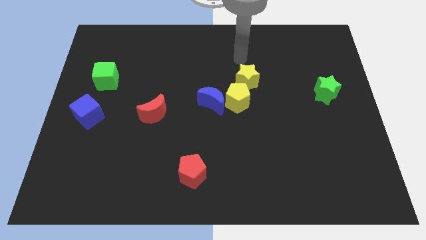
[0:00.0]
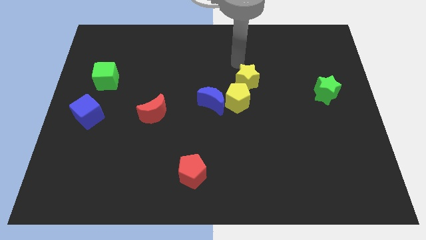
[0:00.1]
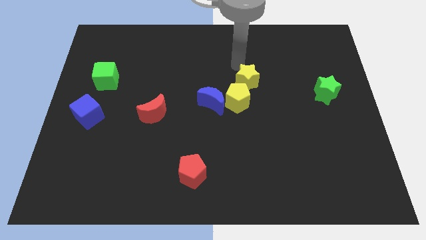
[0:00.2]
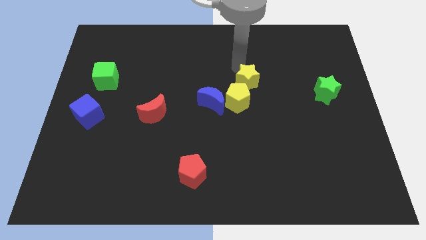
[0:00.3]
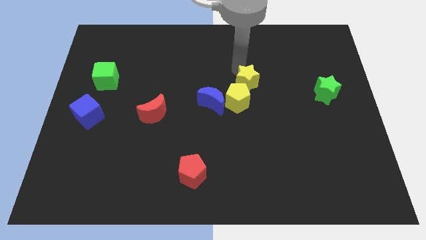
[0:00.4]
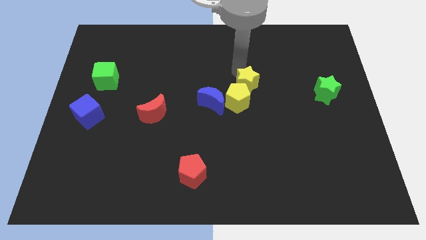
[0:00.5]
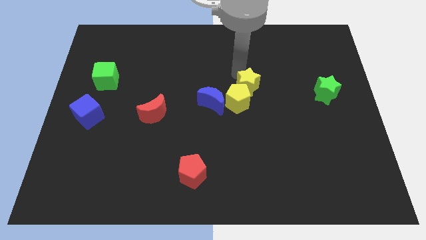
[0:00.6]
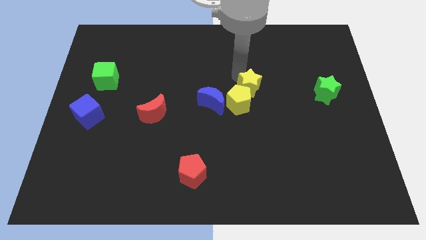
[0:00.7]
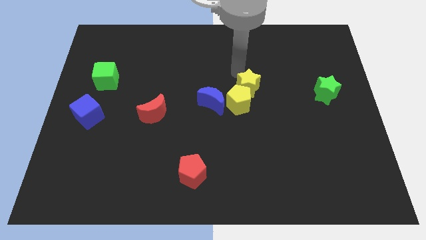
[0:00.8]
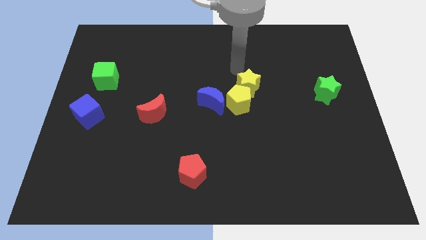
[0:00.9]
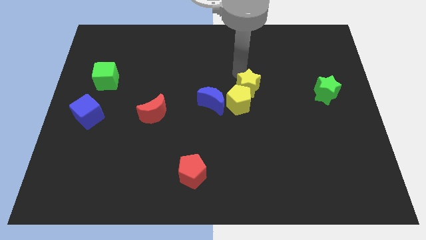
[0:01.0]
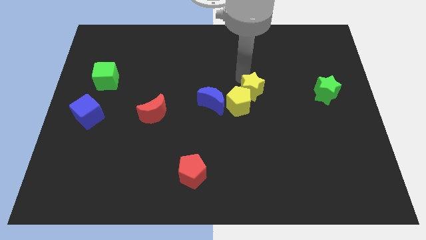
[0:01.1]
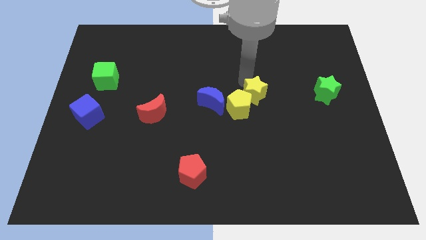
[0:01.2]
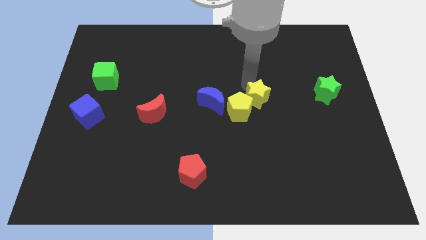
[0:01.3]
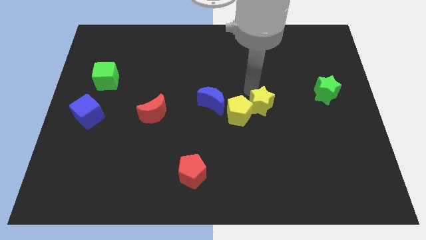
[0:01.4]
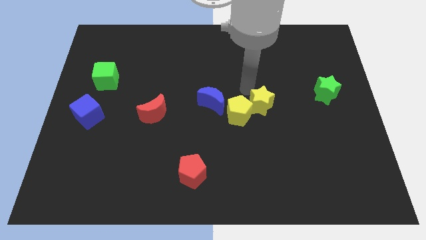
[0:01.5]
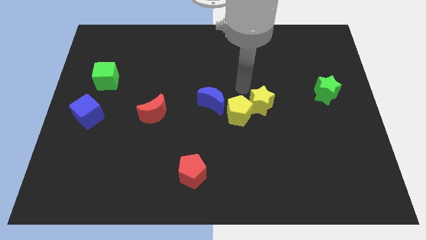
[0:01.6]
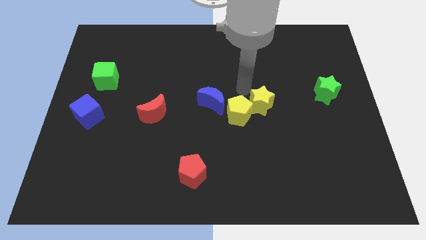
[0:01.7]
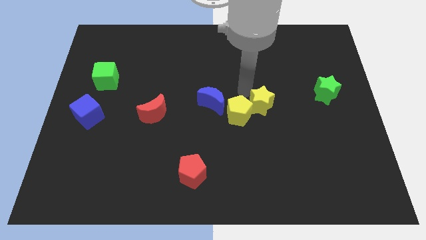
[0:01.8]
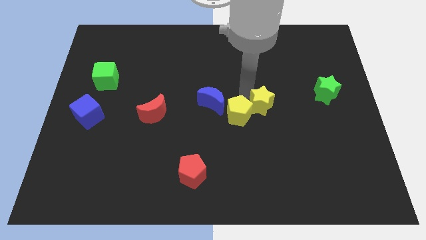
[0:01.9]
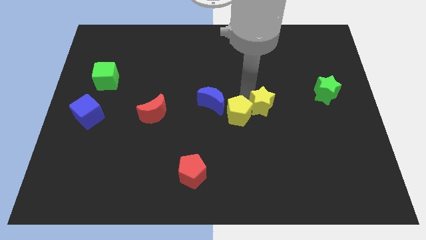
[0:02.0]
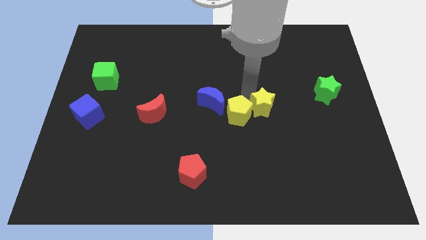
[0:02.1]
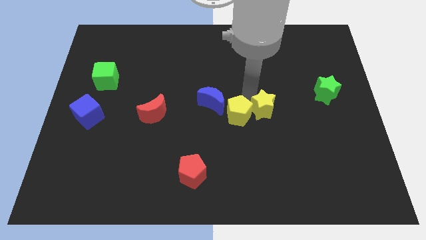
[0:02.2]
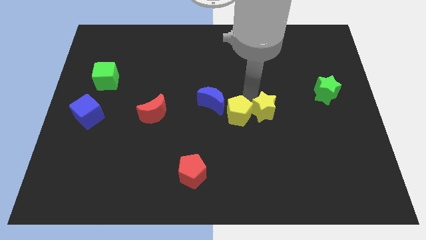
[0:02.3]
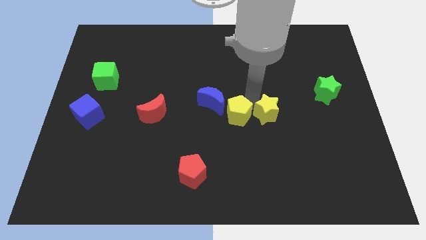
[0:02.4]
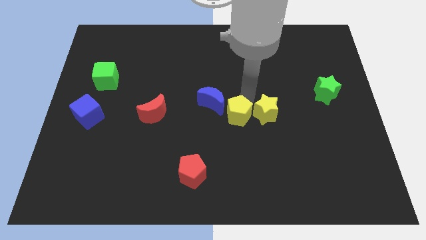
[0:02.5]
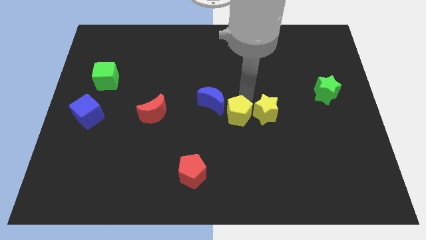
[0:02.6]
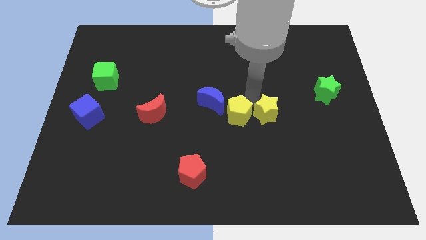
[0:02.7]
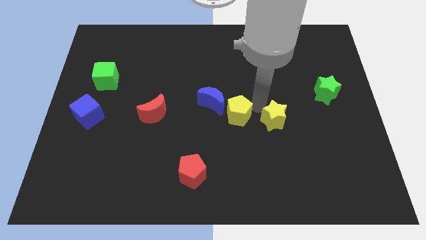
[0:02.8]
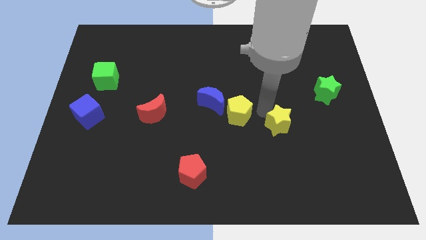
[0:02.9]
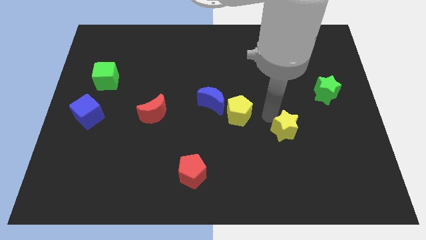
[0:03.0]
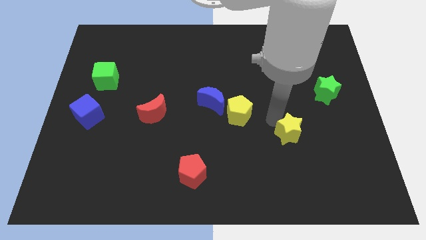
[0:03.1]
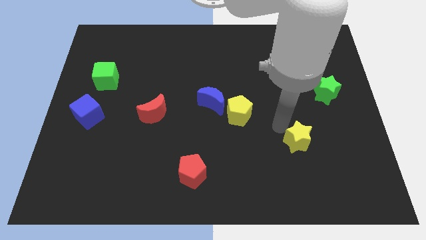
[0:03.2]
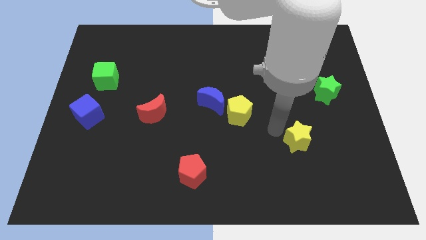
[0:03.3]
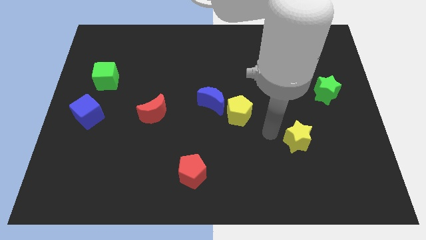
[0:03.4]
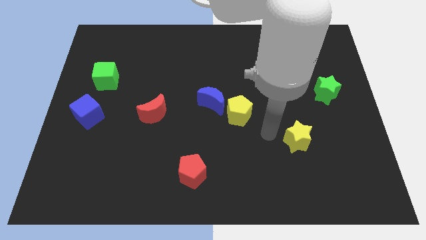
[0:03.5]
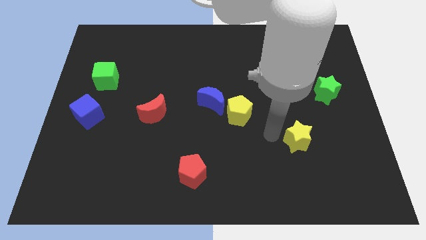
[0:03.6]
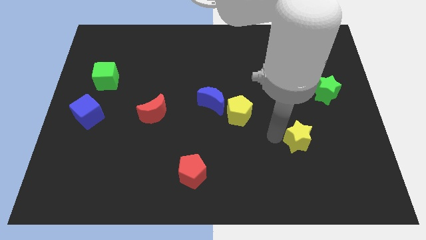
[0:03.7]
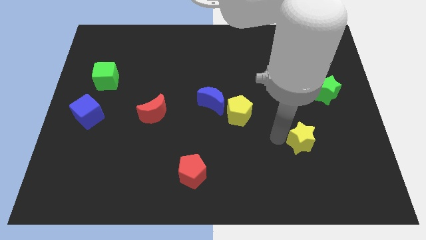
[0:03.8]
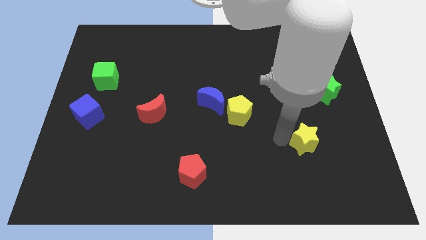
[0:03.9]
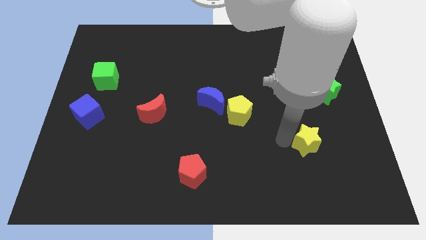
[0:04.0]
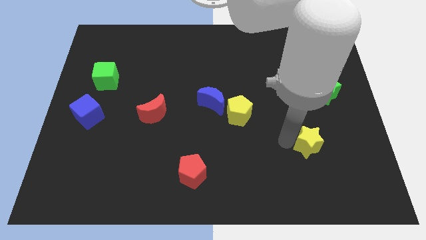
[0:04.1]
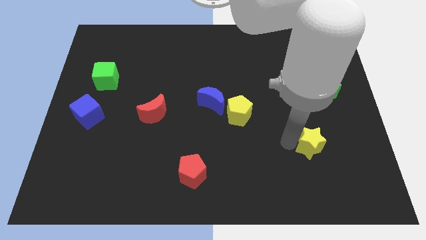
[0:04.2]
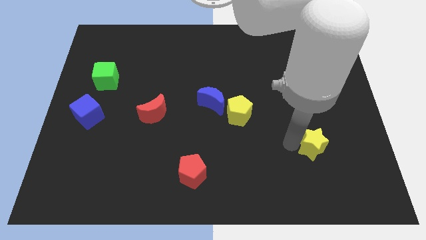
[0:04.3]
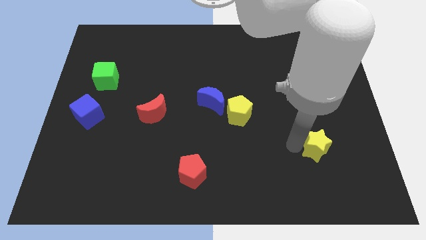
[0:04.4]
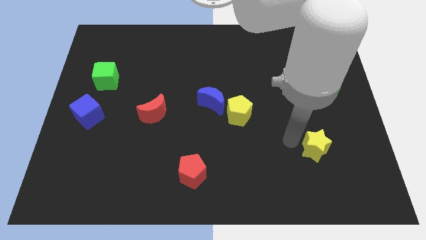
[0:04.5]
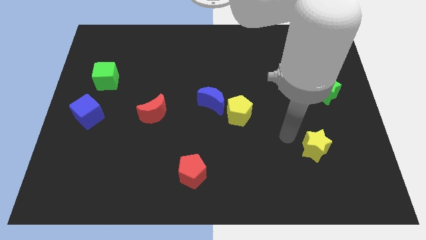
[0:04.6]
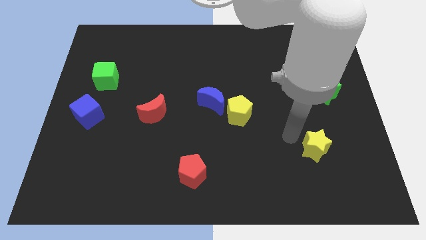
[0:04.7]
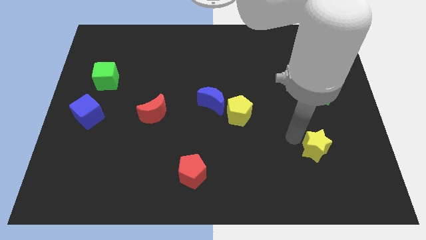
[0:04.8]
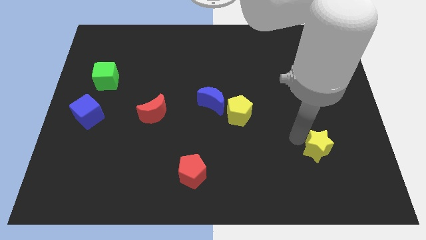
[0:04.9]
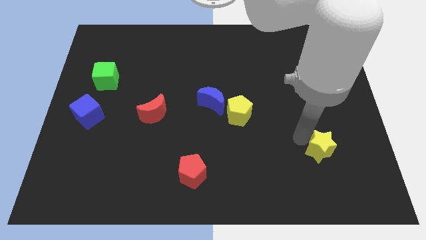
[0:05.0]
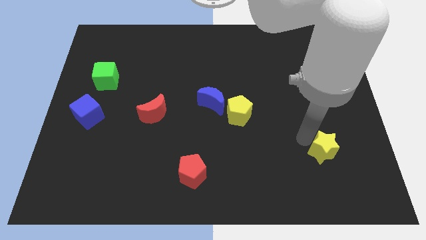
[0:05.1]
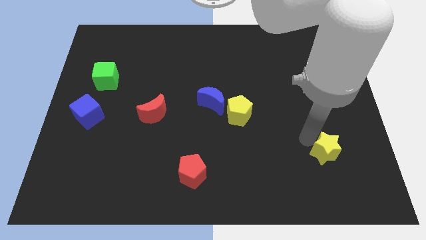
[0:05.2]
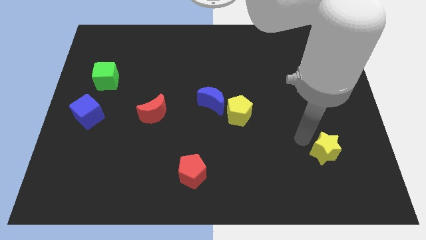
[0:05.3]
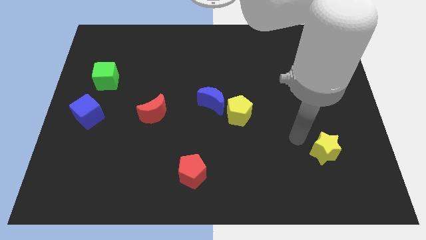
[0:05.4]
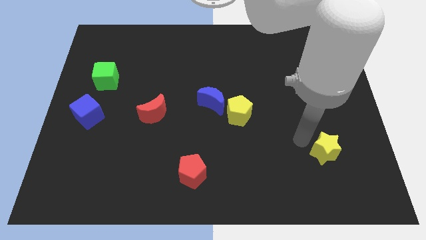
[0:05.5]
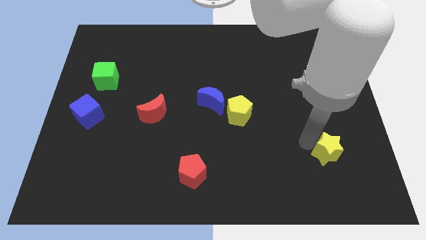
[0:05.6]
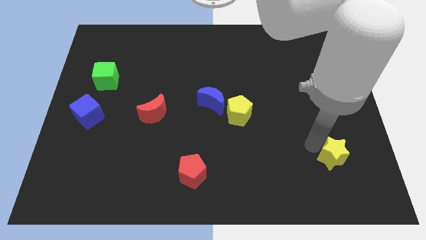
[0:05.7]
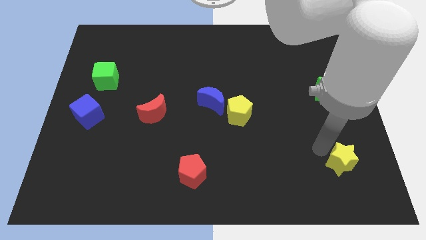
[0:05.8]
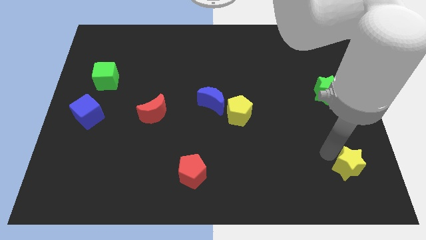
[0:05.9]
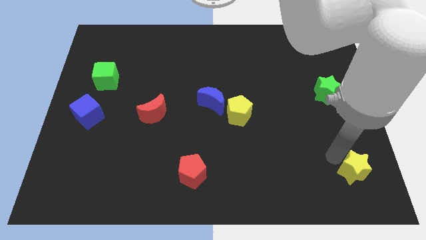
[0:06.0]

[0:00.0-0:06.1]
move the yellow star to the bottom right corner
